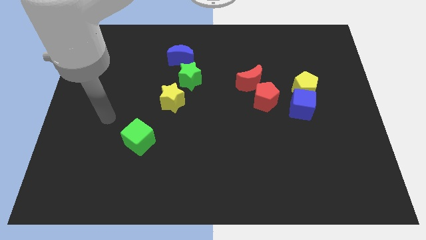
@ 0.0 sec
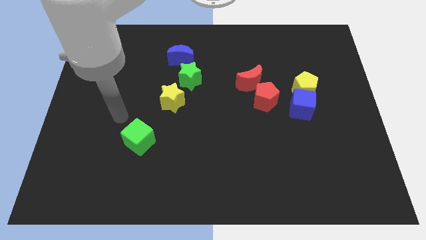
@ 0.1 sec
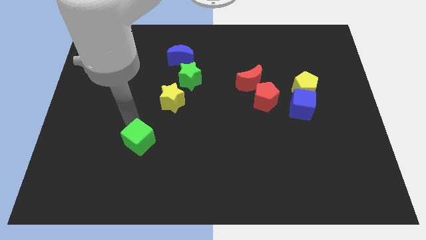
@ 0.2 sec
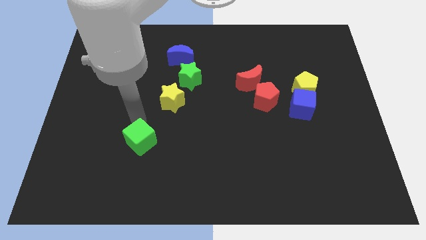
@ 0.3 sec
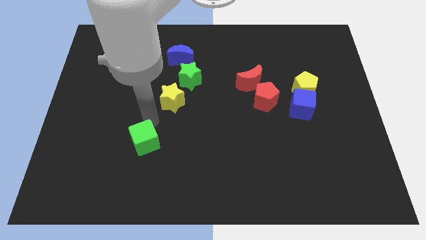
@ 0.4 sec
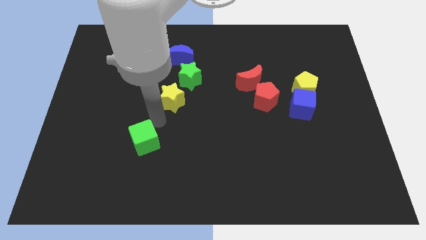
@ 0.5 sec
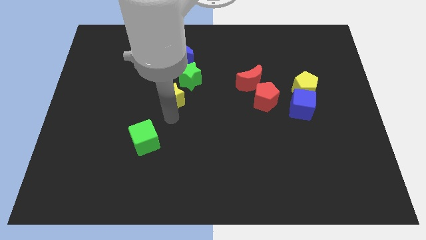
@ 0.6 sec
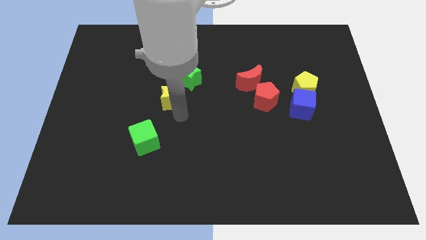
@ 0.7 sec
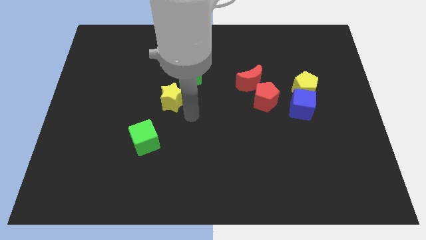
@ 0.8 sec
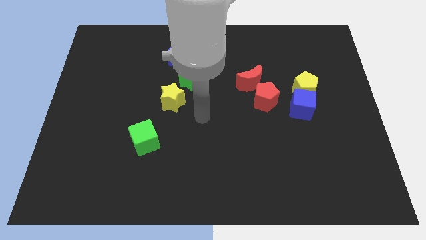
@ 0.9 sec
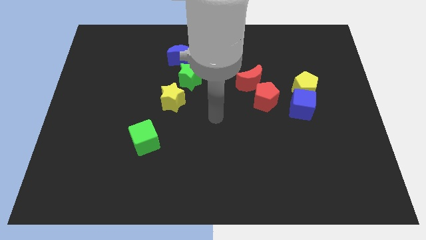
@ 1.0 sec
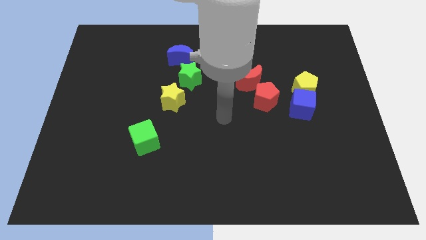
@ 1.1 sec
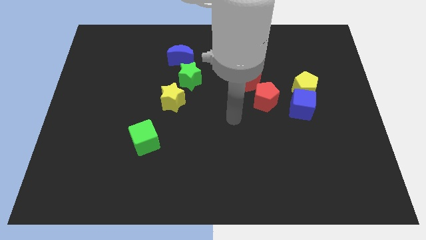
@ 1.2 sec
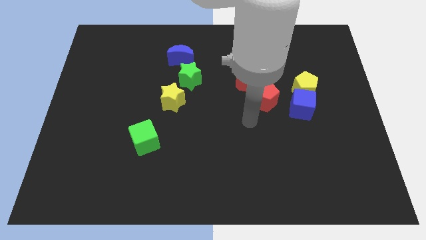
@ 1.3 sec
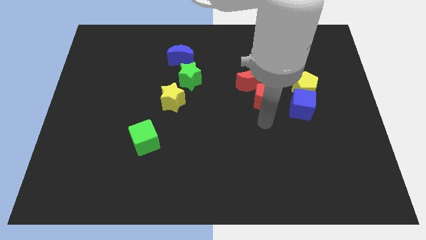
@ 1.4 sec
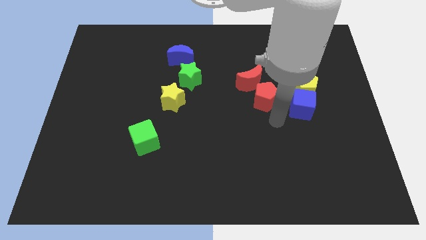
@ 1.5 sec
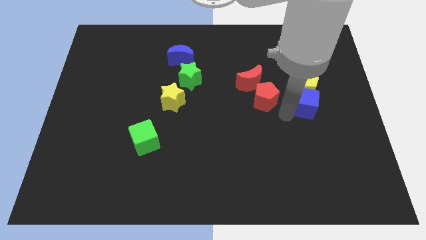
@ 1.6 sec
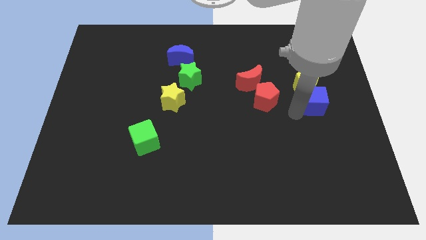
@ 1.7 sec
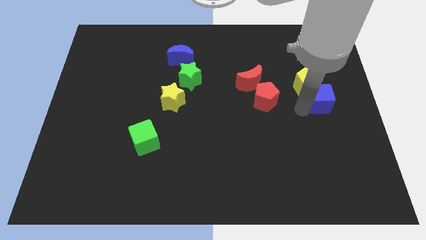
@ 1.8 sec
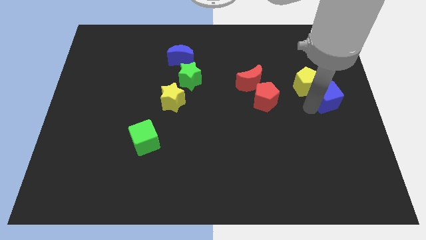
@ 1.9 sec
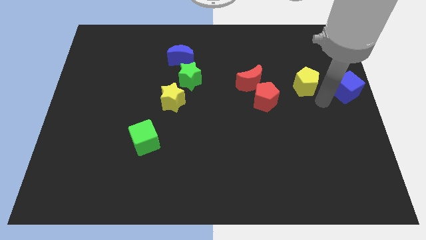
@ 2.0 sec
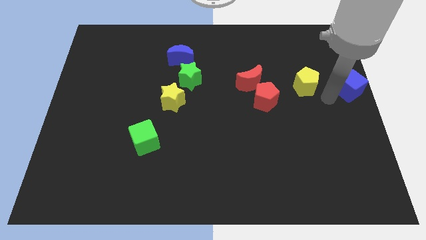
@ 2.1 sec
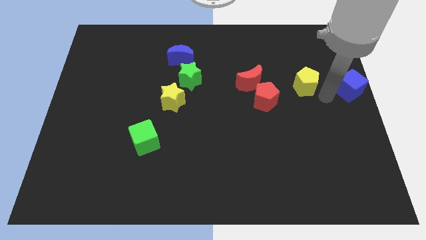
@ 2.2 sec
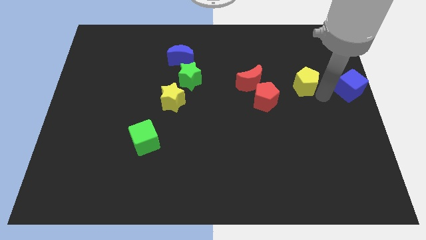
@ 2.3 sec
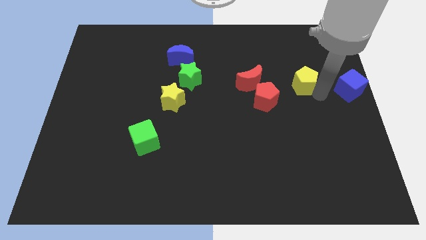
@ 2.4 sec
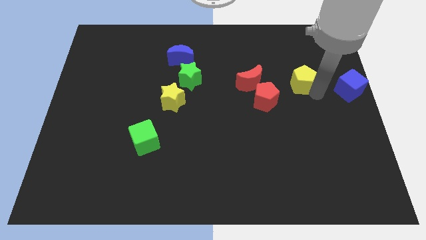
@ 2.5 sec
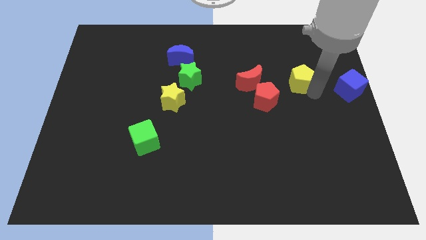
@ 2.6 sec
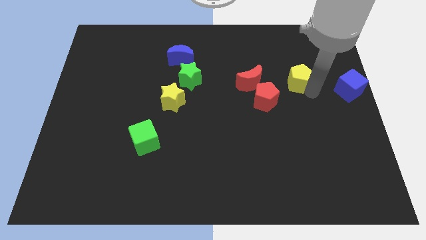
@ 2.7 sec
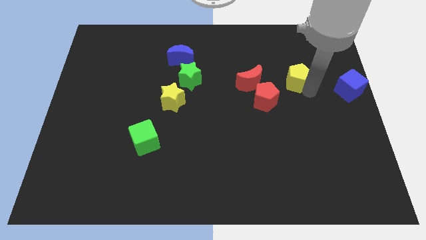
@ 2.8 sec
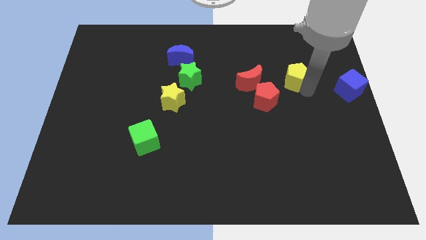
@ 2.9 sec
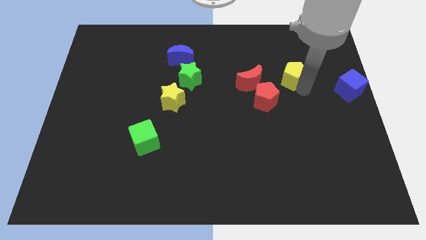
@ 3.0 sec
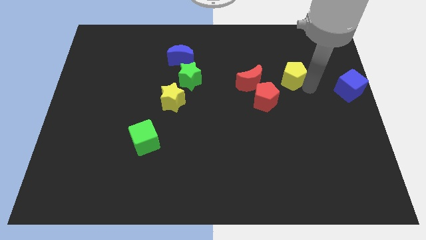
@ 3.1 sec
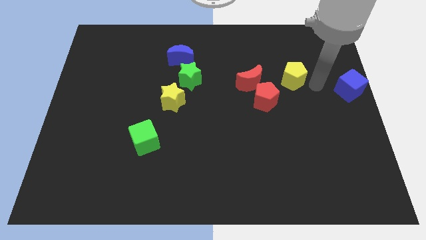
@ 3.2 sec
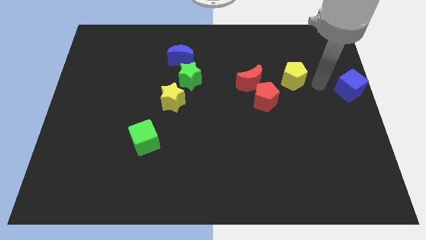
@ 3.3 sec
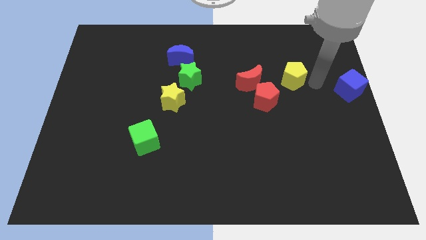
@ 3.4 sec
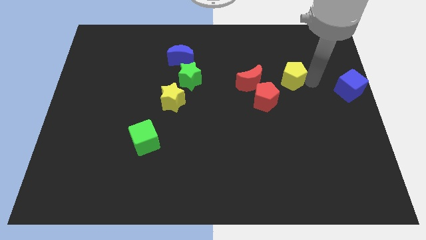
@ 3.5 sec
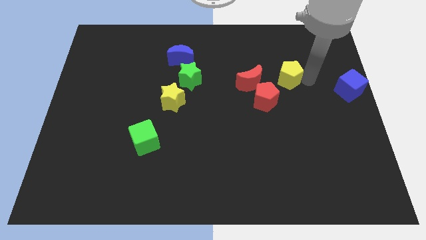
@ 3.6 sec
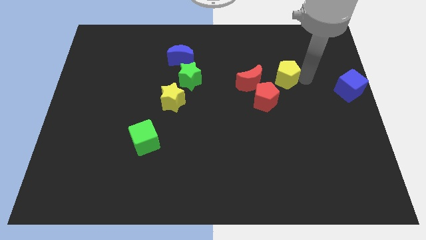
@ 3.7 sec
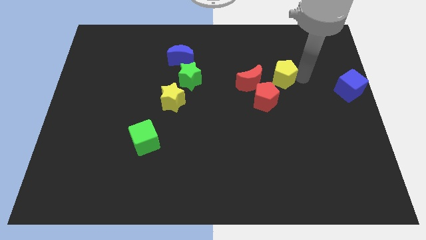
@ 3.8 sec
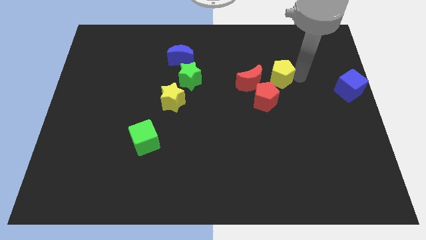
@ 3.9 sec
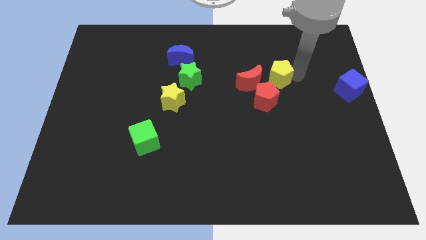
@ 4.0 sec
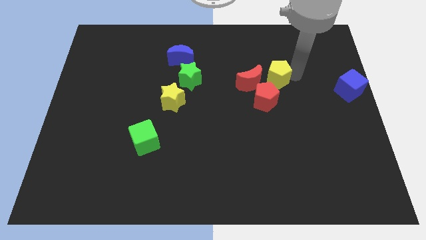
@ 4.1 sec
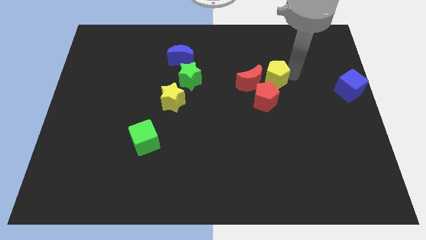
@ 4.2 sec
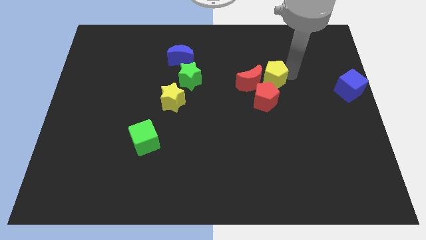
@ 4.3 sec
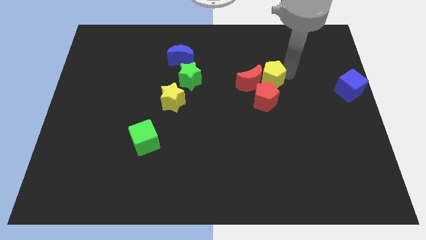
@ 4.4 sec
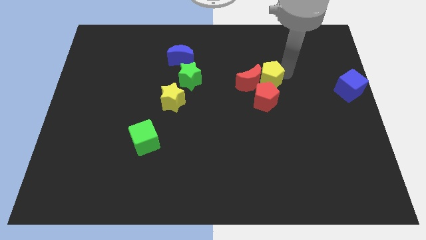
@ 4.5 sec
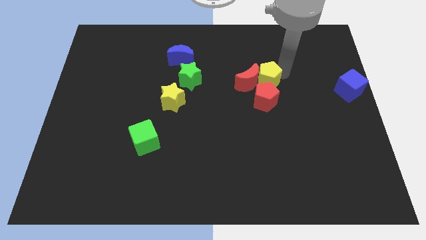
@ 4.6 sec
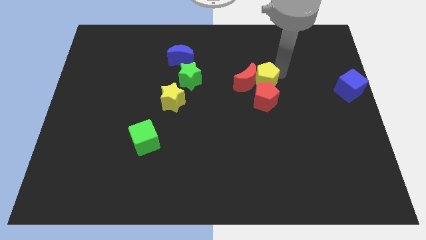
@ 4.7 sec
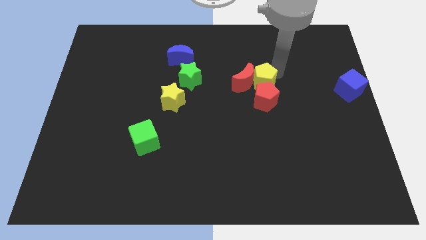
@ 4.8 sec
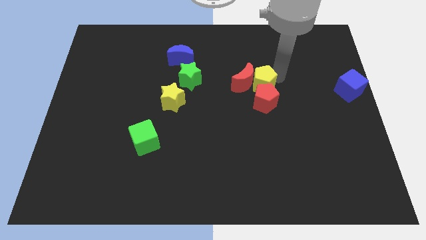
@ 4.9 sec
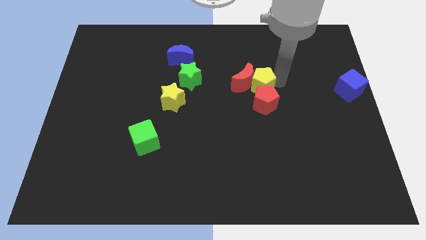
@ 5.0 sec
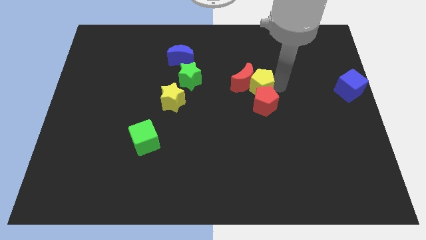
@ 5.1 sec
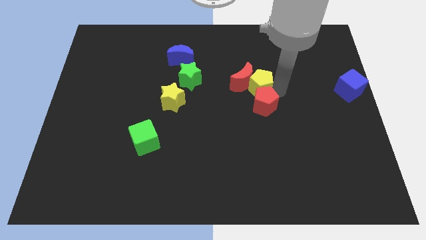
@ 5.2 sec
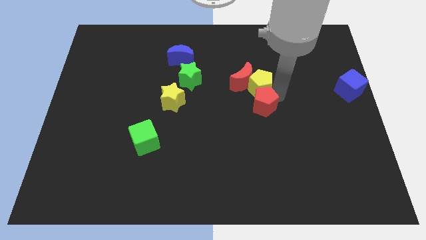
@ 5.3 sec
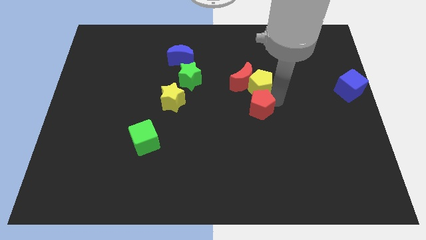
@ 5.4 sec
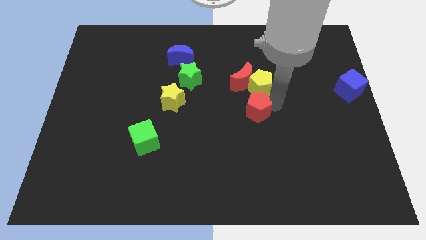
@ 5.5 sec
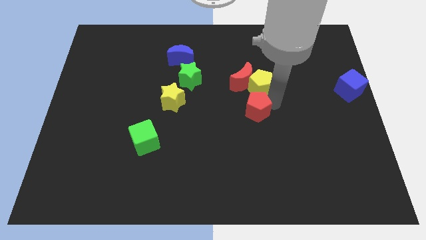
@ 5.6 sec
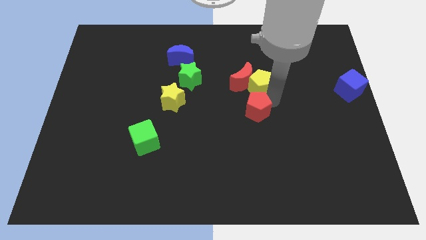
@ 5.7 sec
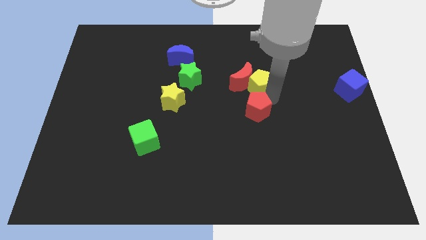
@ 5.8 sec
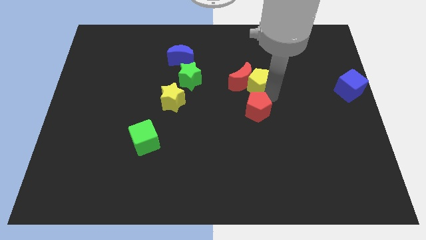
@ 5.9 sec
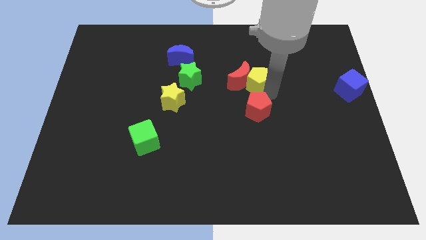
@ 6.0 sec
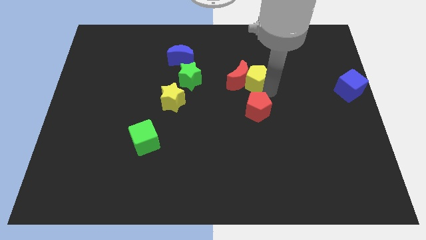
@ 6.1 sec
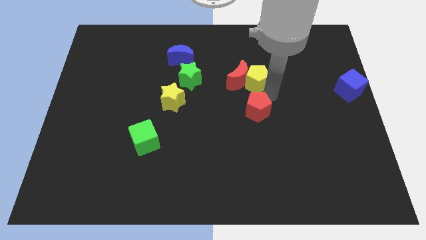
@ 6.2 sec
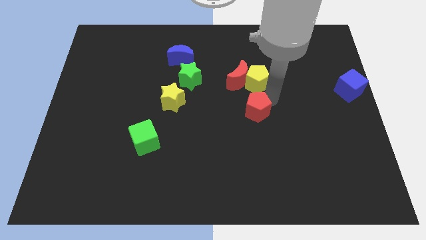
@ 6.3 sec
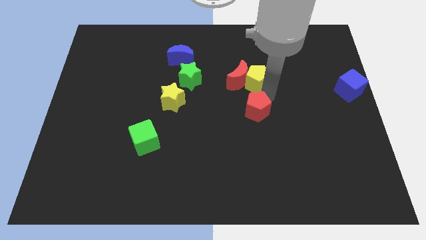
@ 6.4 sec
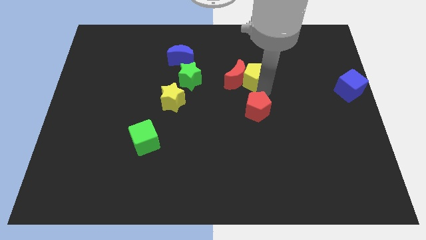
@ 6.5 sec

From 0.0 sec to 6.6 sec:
slide the yellow pentagon just right of the green star

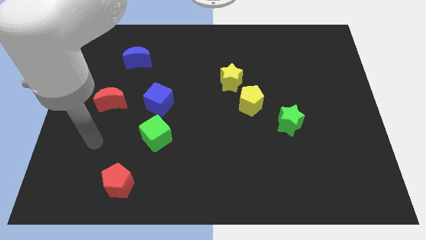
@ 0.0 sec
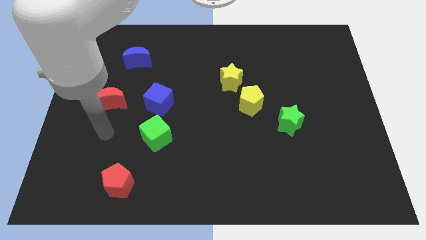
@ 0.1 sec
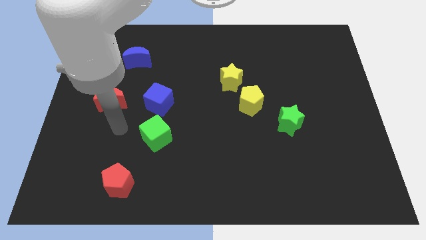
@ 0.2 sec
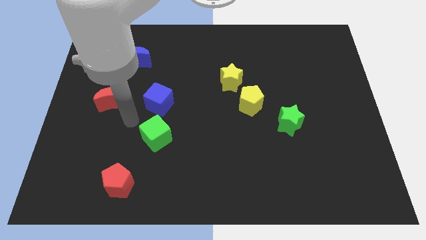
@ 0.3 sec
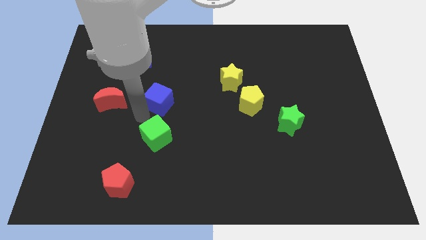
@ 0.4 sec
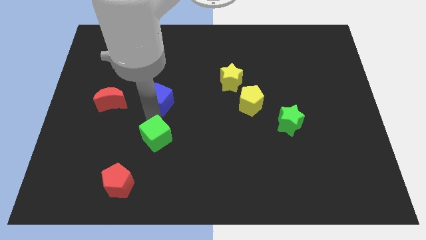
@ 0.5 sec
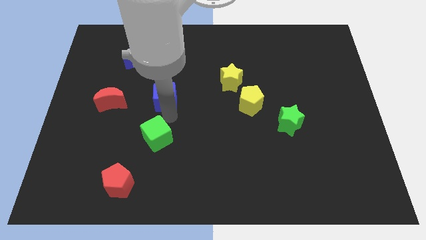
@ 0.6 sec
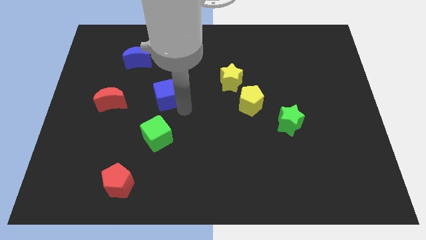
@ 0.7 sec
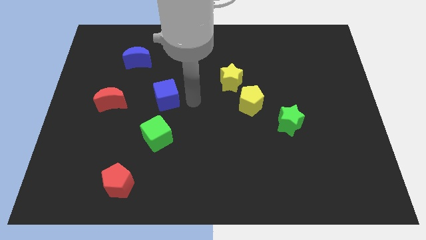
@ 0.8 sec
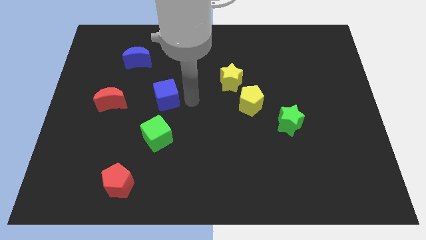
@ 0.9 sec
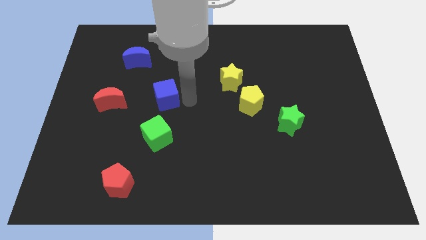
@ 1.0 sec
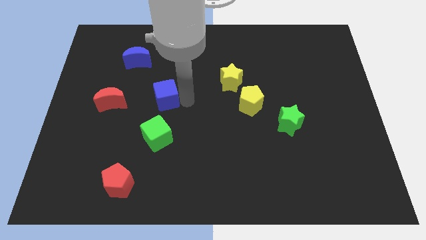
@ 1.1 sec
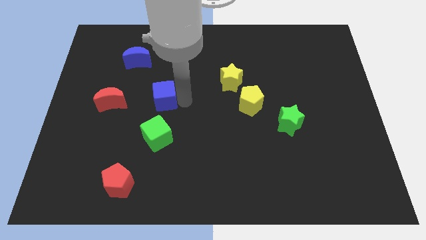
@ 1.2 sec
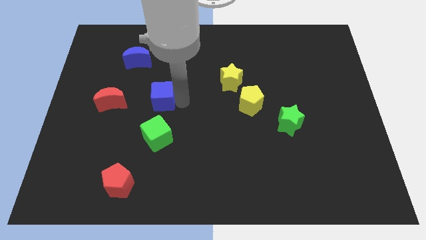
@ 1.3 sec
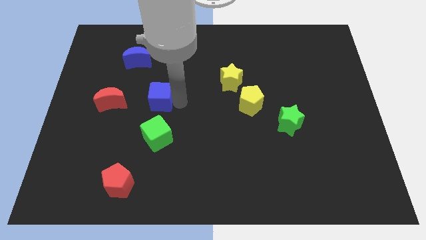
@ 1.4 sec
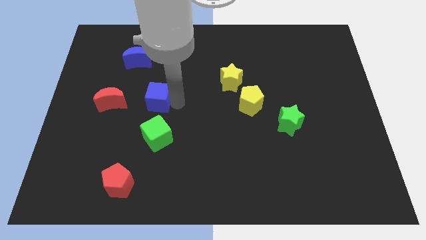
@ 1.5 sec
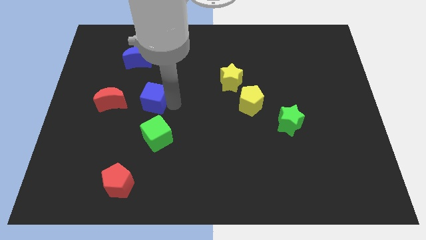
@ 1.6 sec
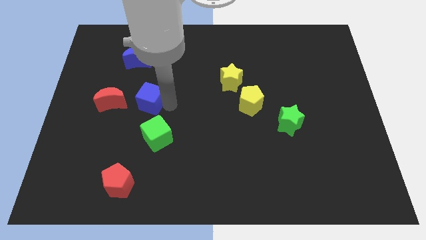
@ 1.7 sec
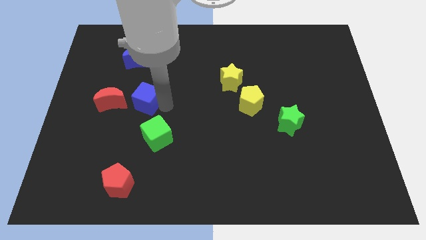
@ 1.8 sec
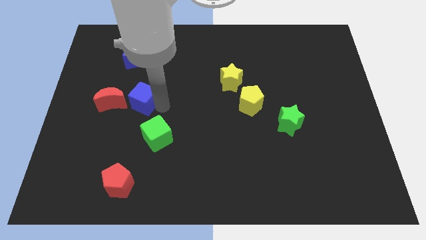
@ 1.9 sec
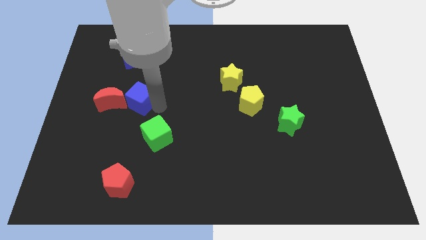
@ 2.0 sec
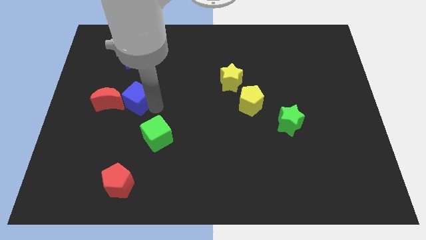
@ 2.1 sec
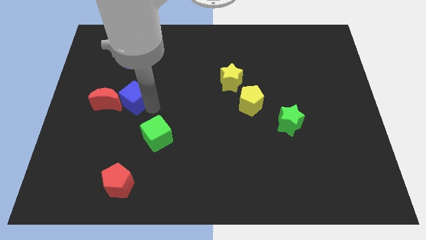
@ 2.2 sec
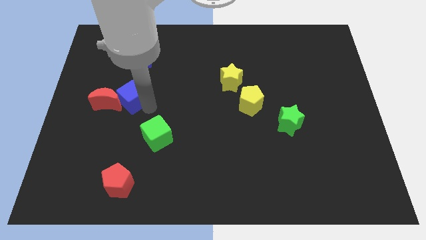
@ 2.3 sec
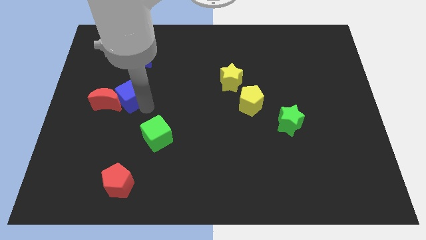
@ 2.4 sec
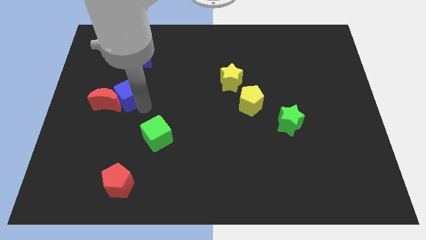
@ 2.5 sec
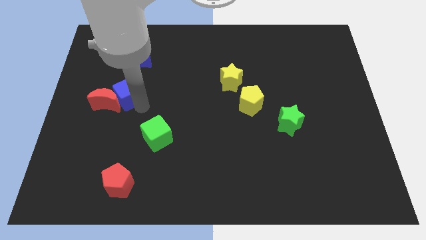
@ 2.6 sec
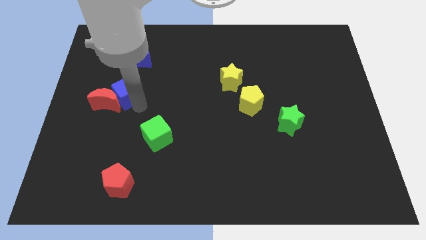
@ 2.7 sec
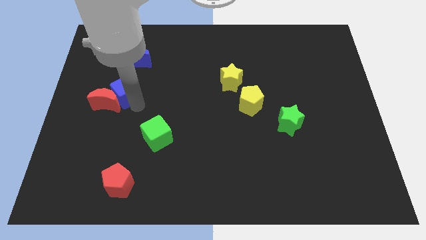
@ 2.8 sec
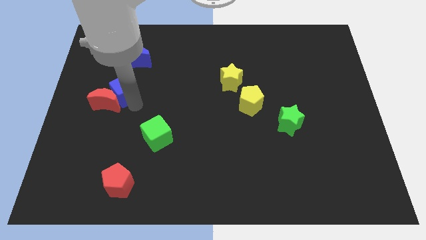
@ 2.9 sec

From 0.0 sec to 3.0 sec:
push the blue cube to the top side of the red moon
